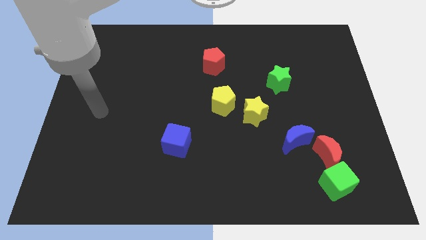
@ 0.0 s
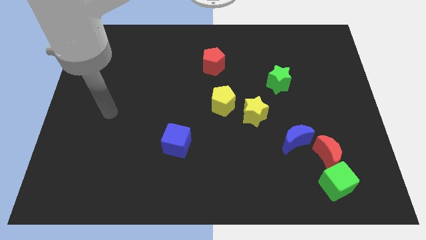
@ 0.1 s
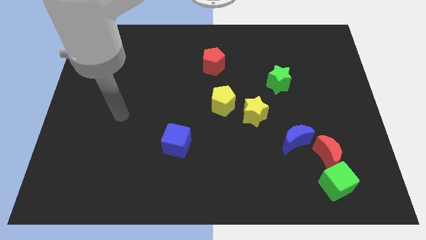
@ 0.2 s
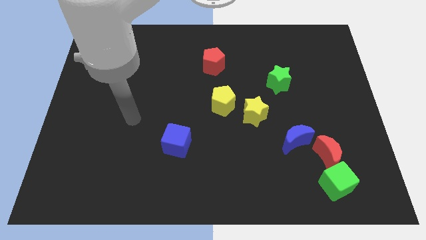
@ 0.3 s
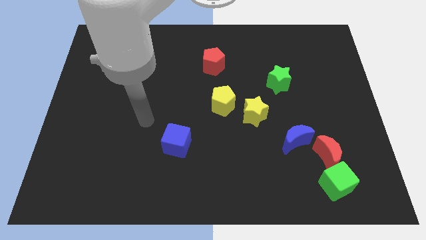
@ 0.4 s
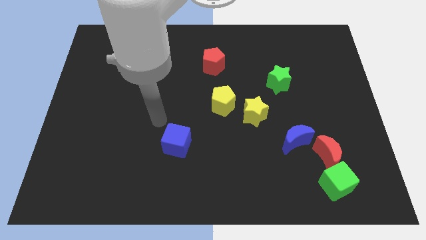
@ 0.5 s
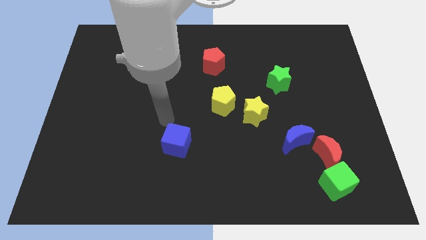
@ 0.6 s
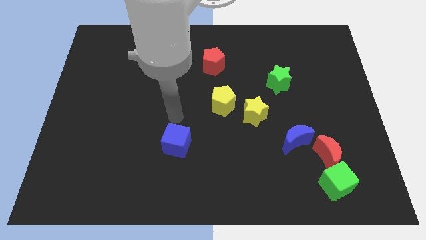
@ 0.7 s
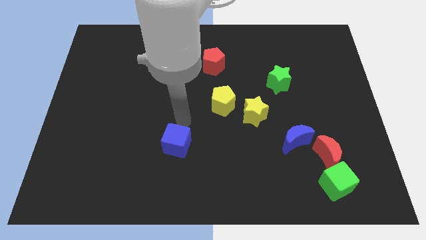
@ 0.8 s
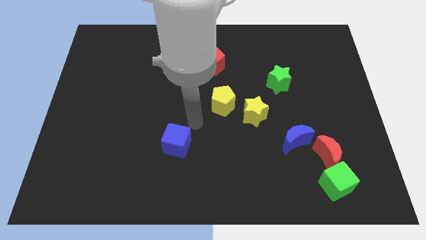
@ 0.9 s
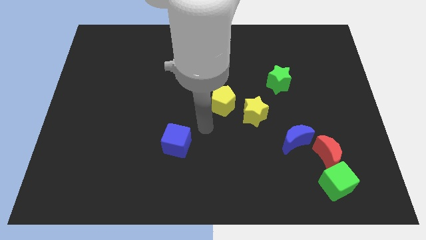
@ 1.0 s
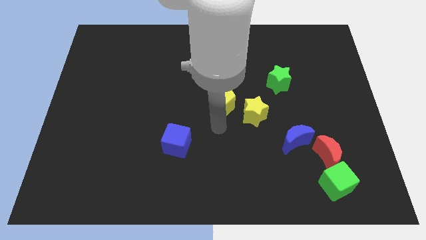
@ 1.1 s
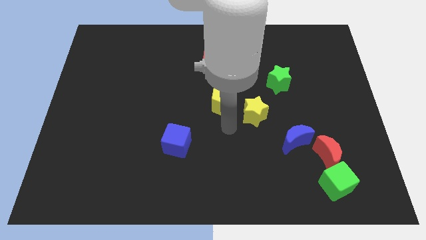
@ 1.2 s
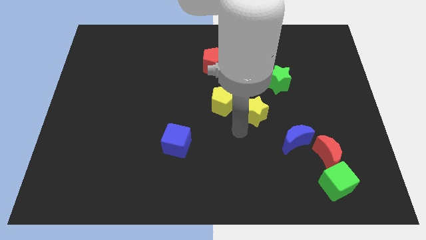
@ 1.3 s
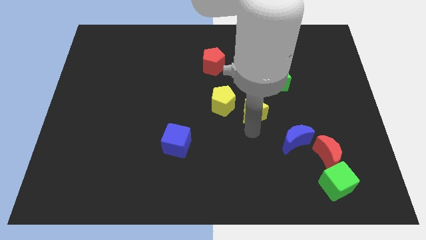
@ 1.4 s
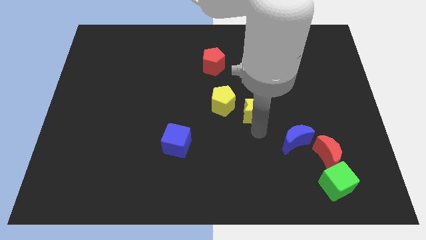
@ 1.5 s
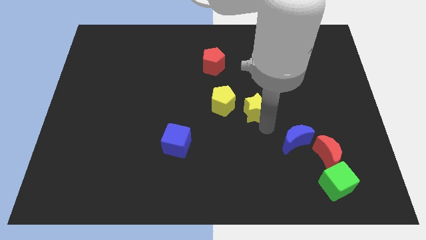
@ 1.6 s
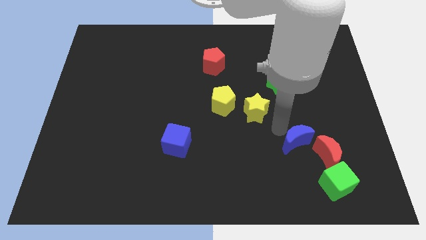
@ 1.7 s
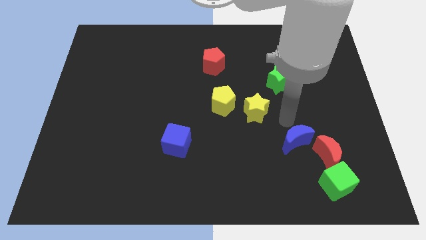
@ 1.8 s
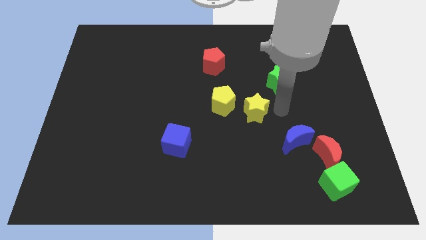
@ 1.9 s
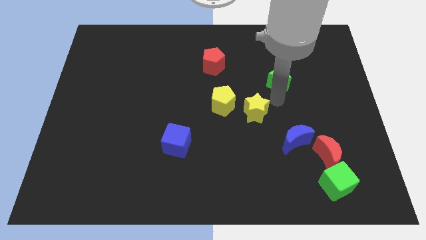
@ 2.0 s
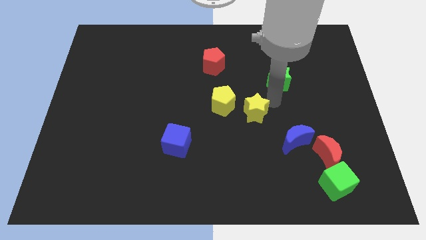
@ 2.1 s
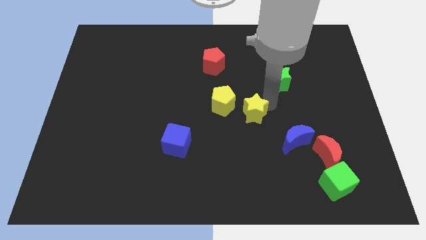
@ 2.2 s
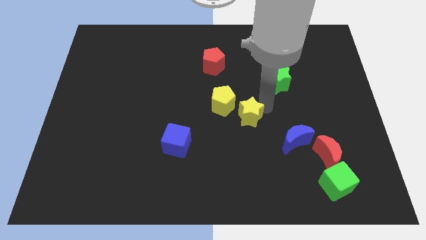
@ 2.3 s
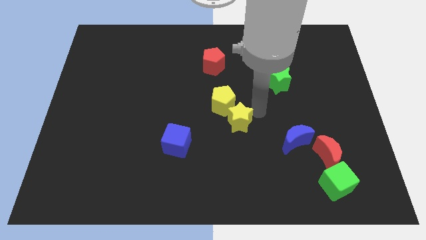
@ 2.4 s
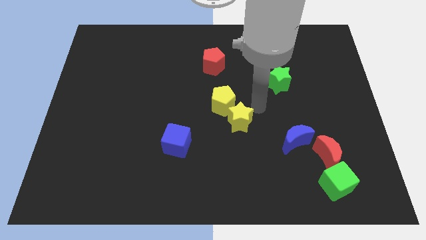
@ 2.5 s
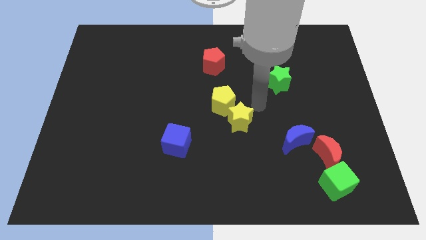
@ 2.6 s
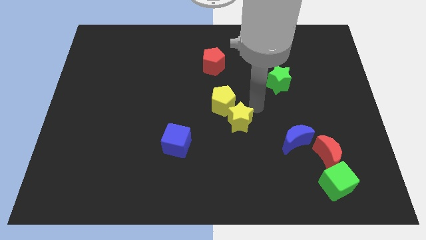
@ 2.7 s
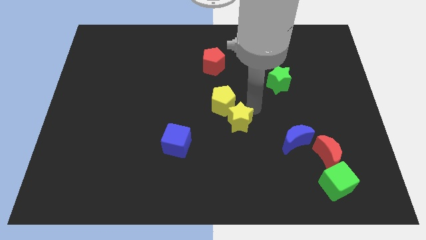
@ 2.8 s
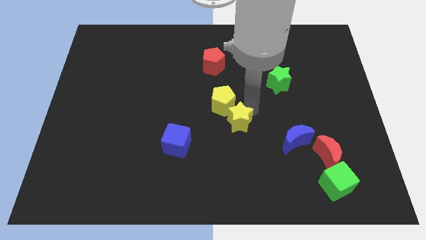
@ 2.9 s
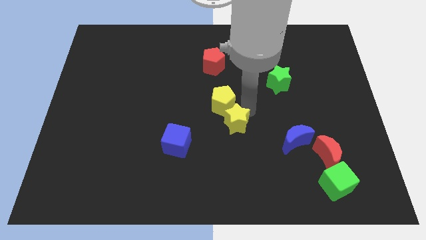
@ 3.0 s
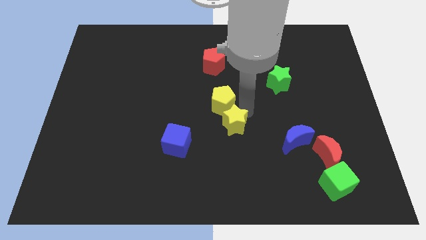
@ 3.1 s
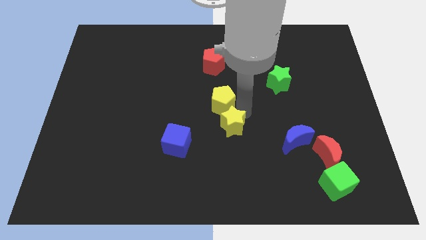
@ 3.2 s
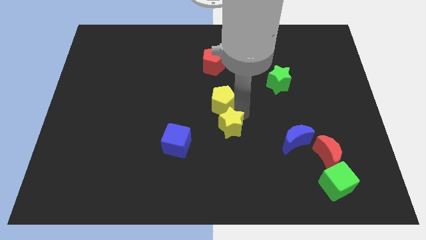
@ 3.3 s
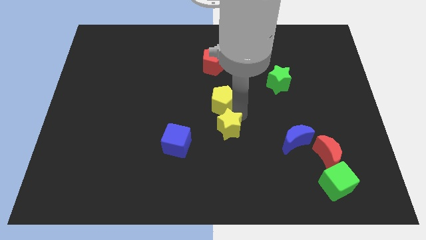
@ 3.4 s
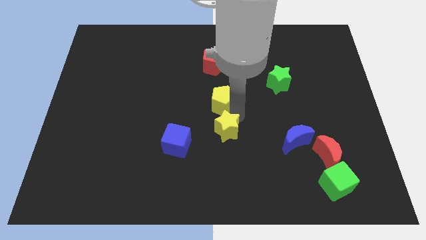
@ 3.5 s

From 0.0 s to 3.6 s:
push the yellow star diagonally down and to the left a little

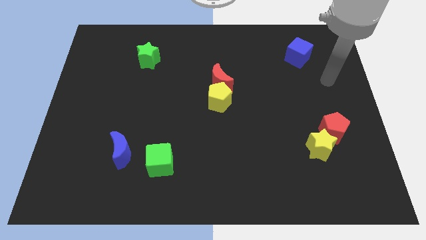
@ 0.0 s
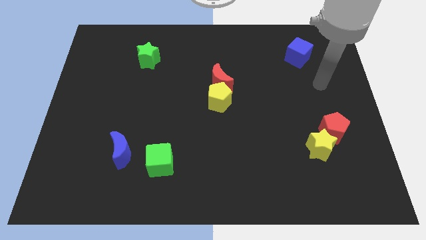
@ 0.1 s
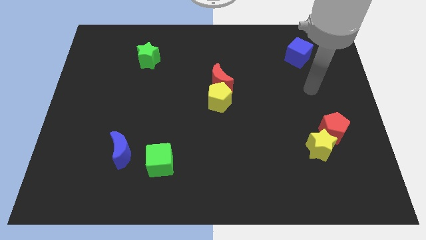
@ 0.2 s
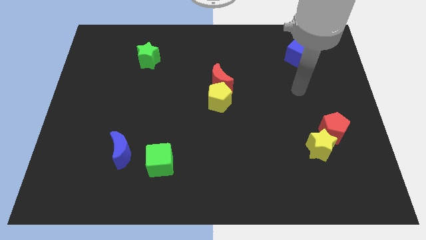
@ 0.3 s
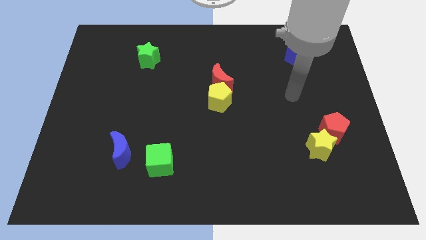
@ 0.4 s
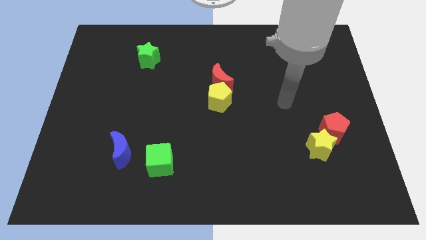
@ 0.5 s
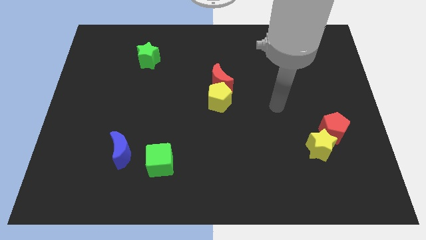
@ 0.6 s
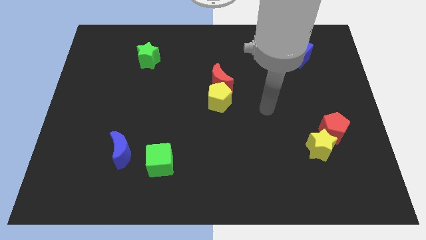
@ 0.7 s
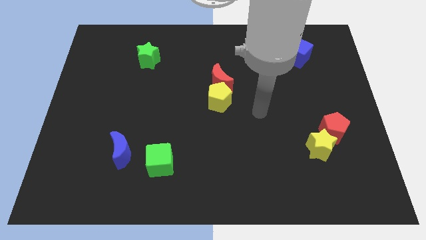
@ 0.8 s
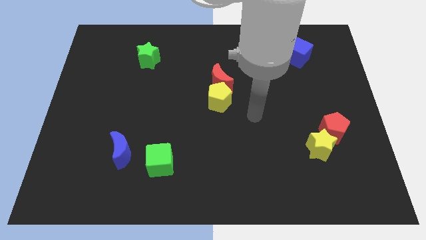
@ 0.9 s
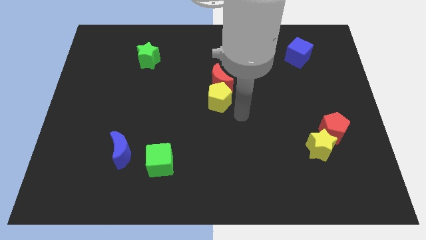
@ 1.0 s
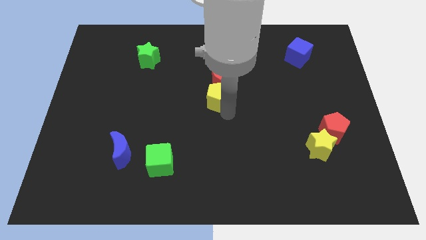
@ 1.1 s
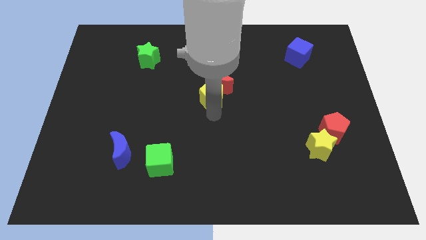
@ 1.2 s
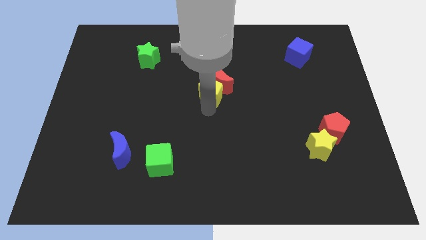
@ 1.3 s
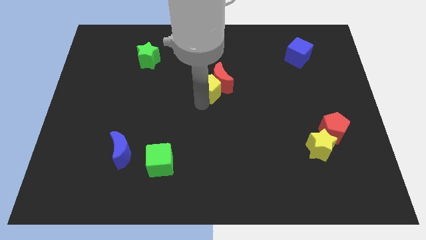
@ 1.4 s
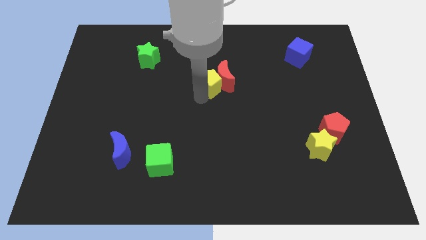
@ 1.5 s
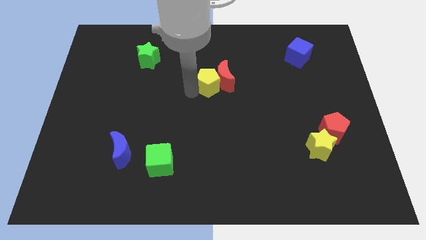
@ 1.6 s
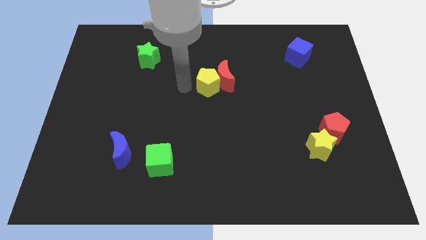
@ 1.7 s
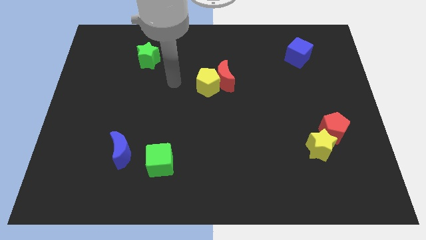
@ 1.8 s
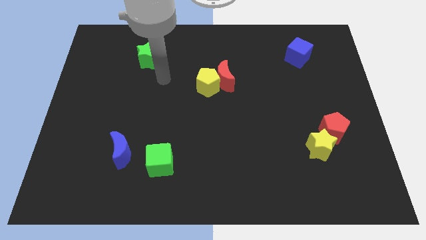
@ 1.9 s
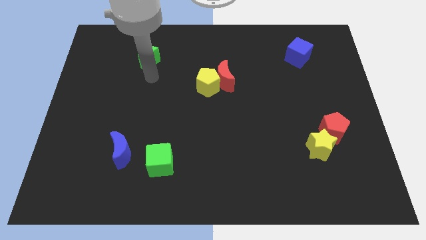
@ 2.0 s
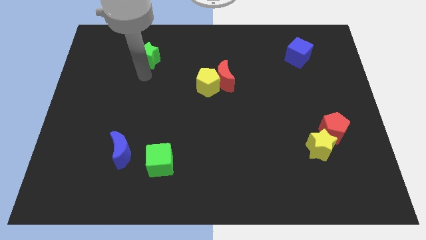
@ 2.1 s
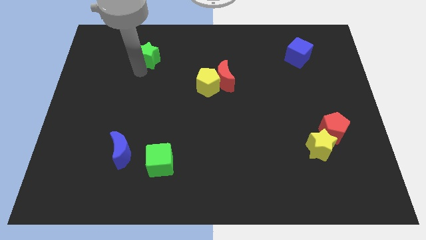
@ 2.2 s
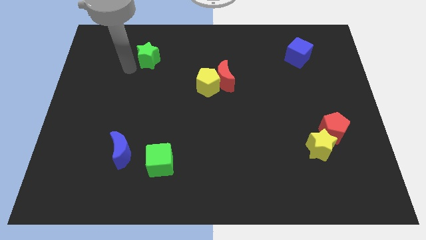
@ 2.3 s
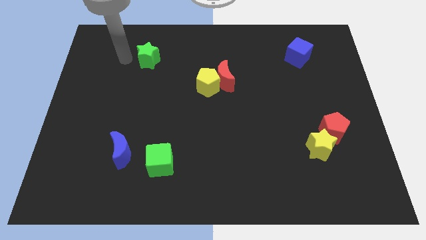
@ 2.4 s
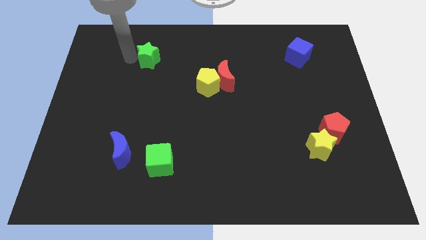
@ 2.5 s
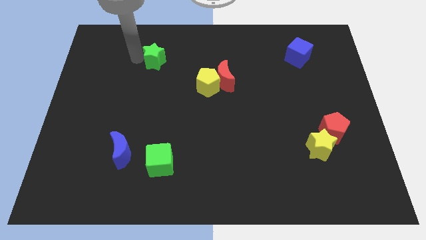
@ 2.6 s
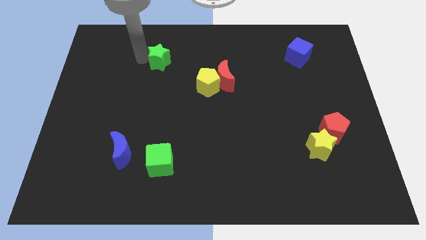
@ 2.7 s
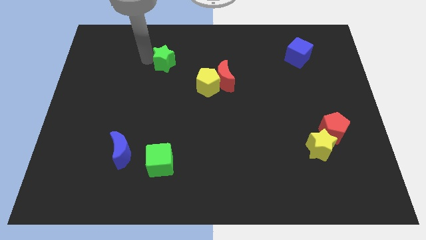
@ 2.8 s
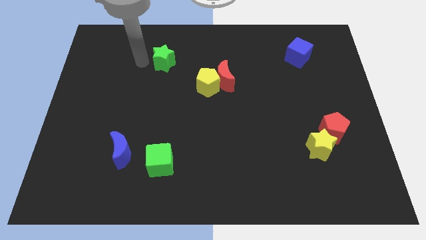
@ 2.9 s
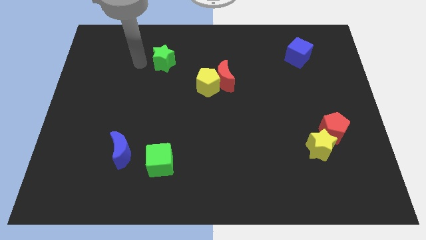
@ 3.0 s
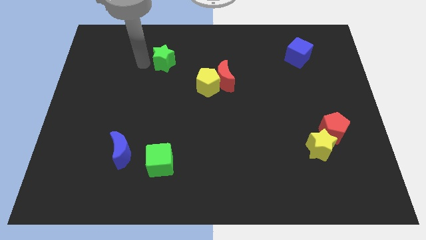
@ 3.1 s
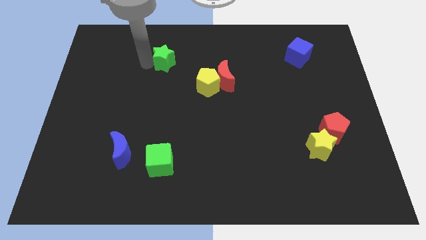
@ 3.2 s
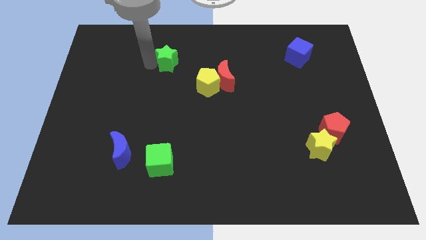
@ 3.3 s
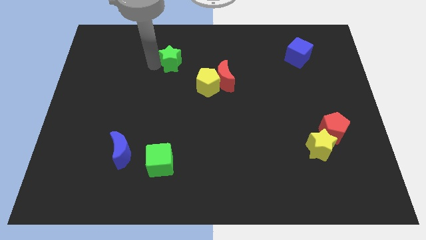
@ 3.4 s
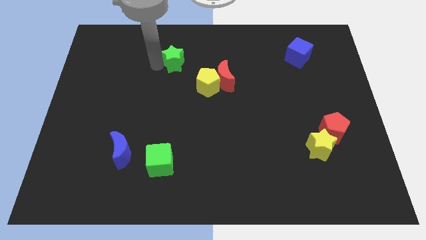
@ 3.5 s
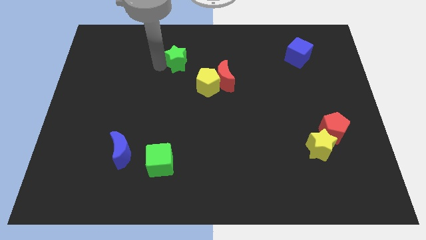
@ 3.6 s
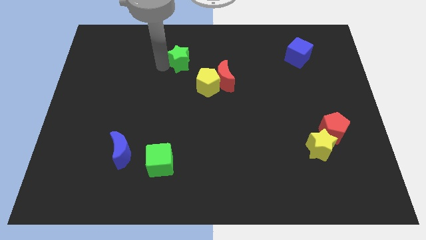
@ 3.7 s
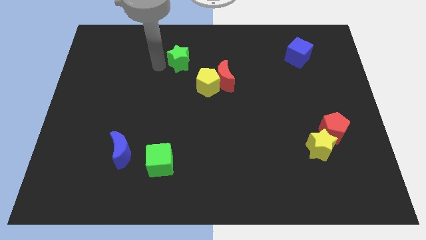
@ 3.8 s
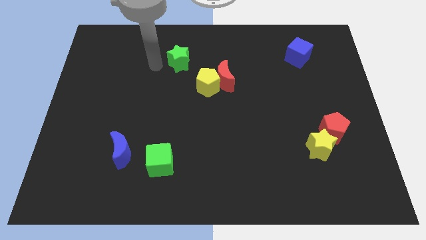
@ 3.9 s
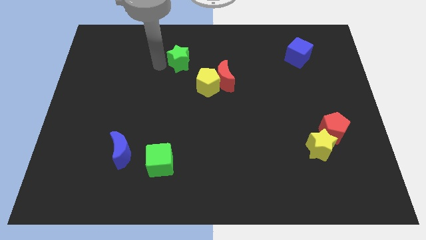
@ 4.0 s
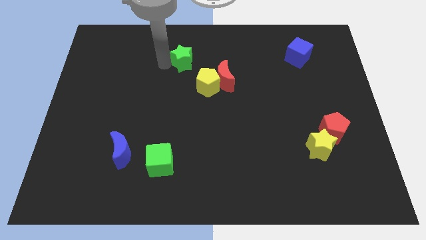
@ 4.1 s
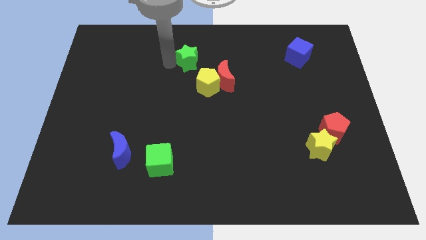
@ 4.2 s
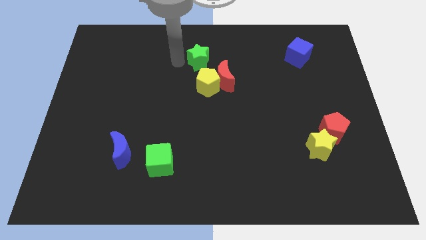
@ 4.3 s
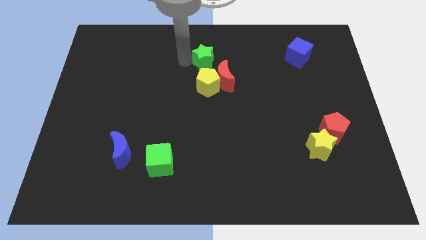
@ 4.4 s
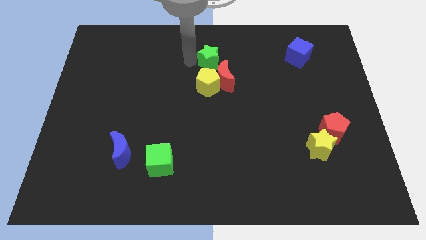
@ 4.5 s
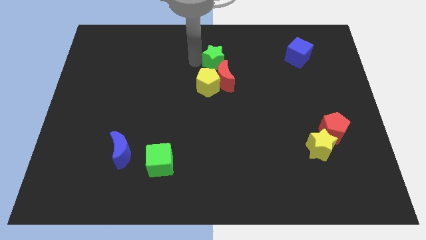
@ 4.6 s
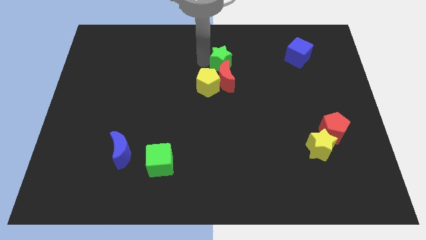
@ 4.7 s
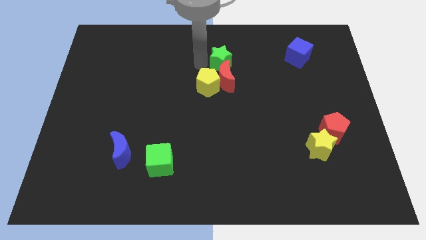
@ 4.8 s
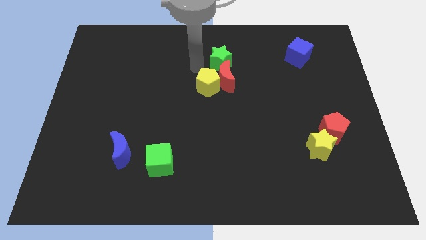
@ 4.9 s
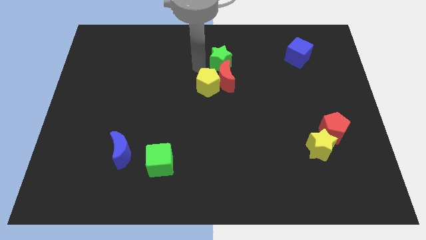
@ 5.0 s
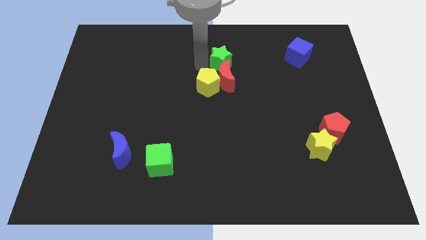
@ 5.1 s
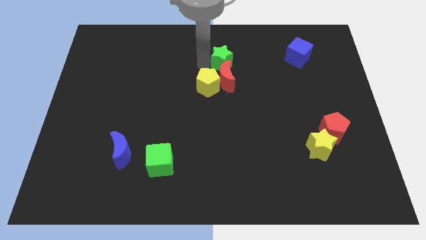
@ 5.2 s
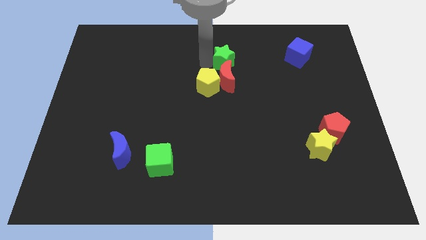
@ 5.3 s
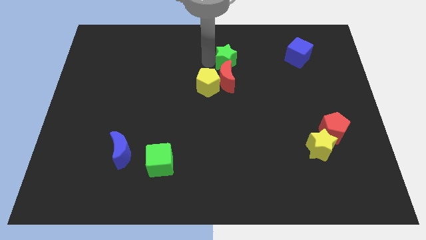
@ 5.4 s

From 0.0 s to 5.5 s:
slide the green star to the right
